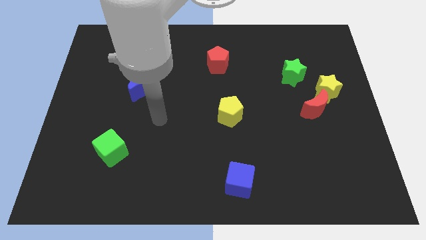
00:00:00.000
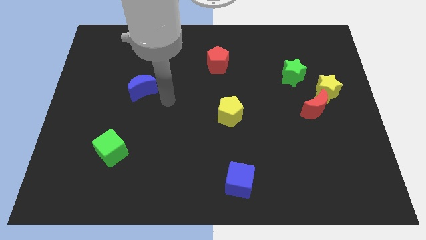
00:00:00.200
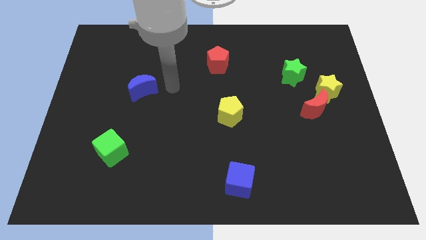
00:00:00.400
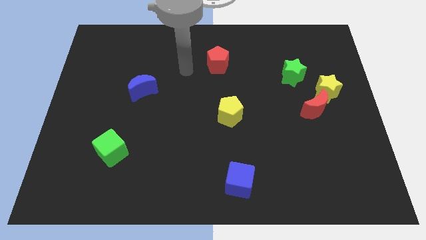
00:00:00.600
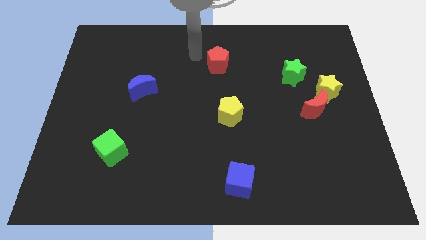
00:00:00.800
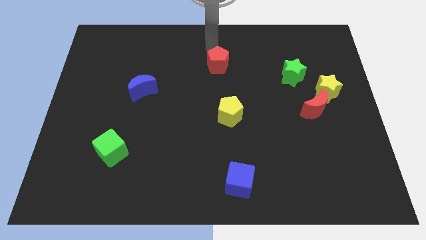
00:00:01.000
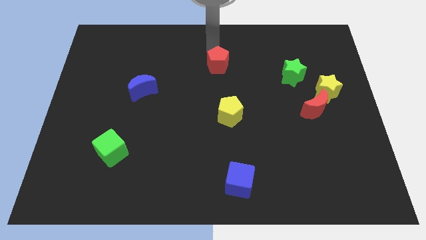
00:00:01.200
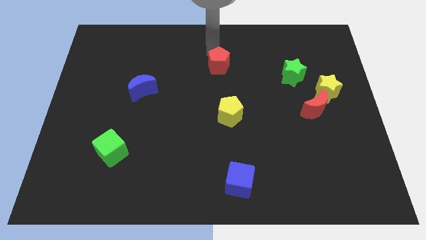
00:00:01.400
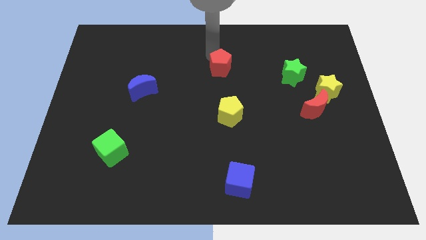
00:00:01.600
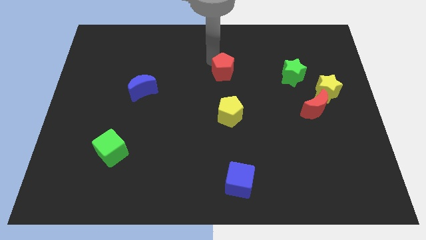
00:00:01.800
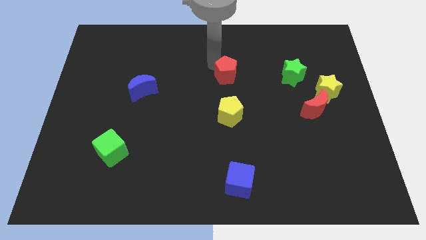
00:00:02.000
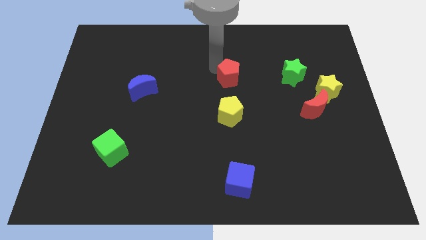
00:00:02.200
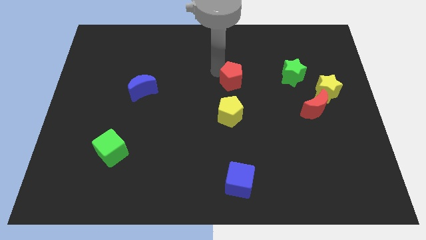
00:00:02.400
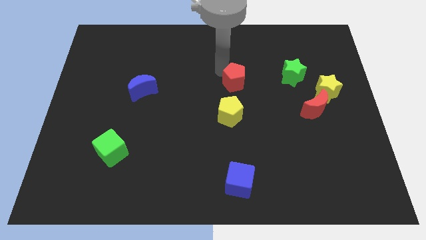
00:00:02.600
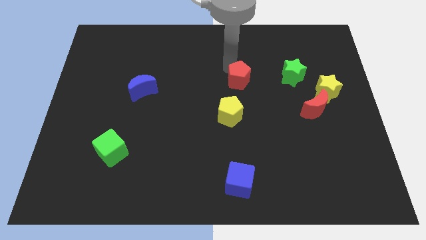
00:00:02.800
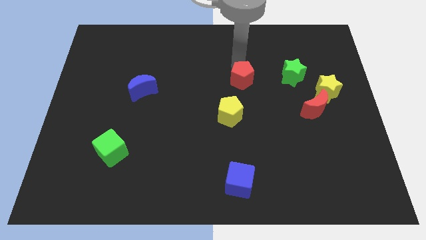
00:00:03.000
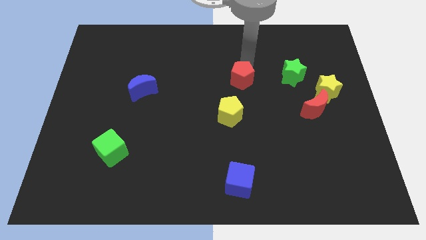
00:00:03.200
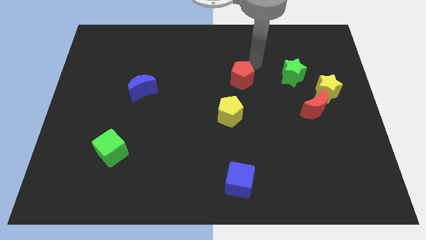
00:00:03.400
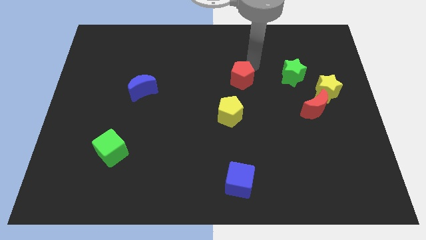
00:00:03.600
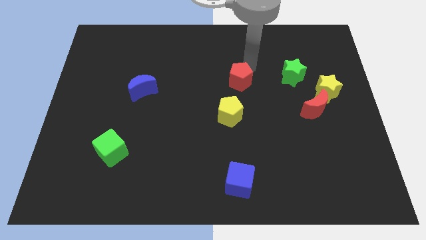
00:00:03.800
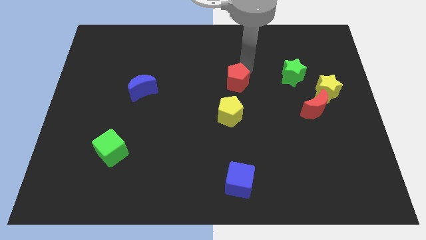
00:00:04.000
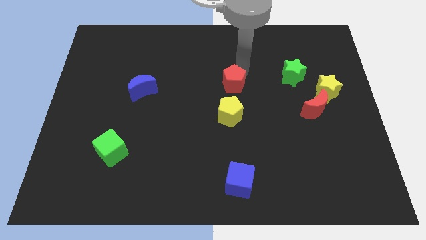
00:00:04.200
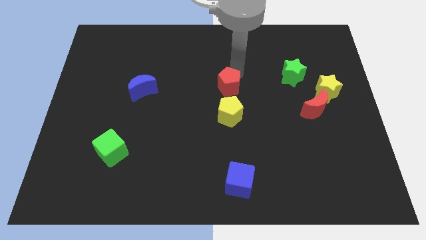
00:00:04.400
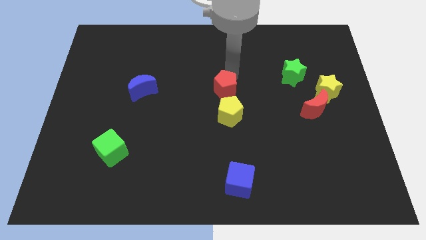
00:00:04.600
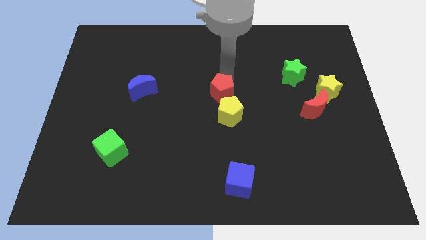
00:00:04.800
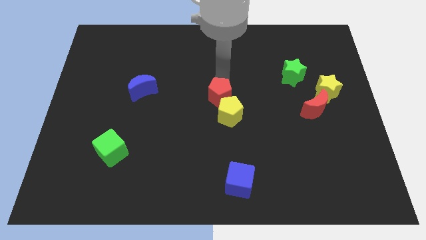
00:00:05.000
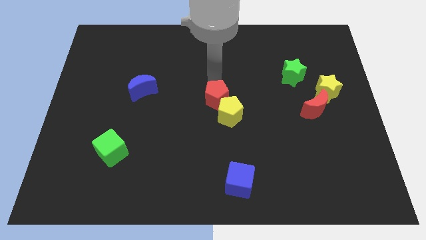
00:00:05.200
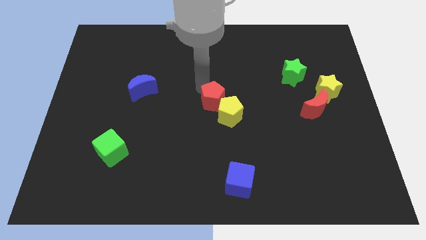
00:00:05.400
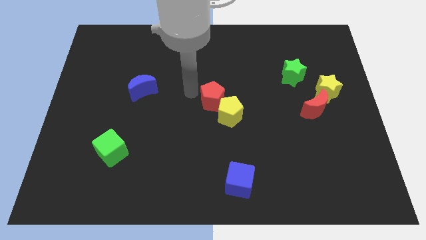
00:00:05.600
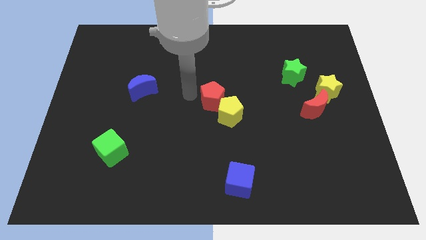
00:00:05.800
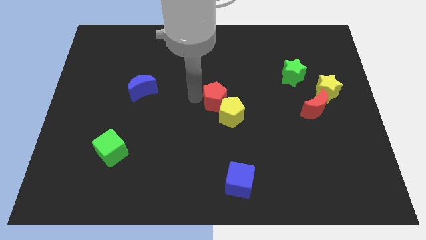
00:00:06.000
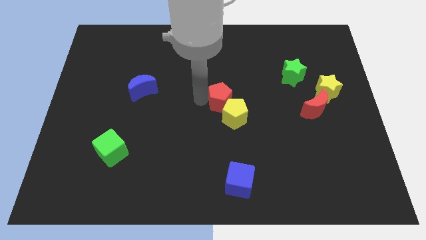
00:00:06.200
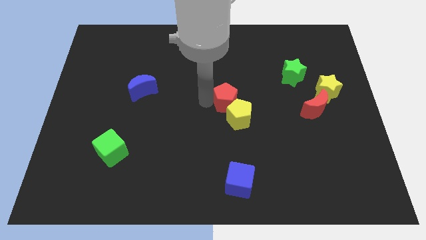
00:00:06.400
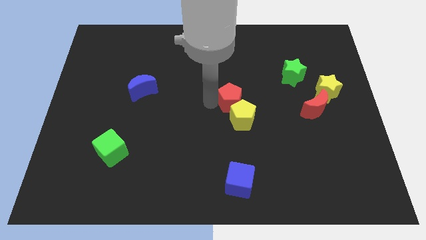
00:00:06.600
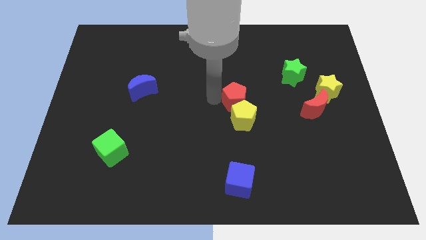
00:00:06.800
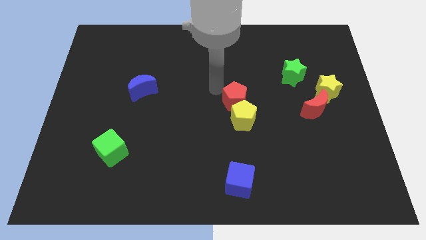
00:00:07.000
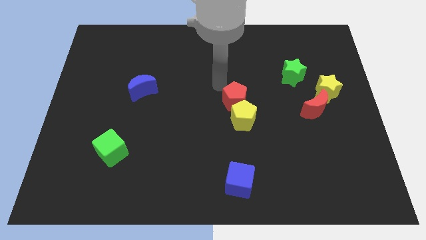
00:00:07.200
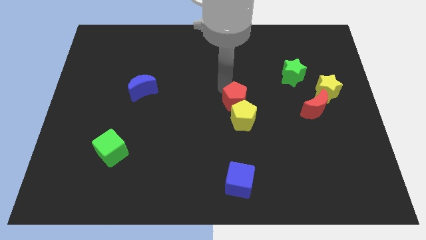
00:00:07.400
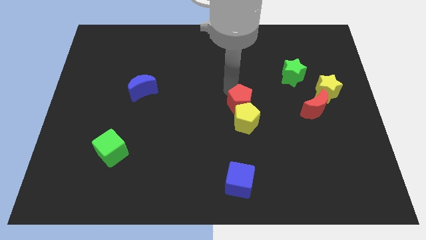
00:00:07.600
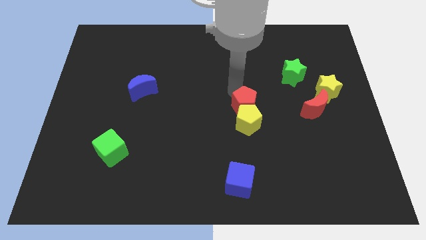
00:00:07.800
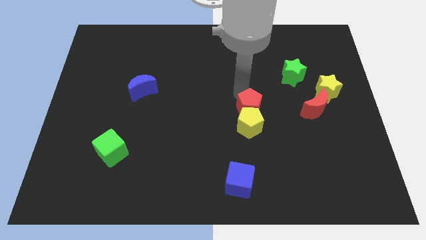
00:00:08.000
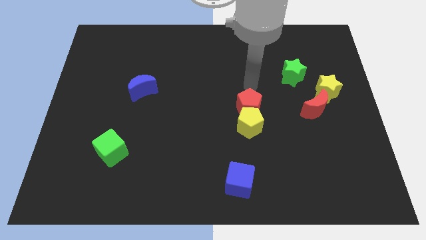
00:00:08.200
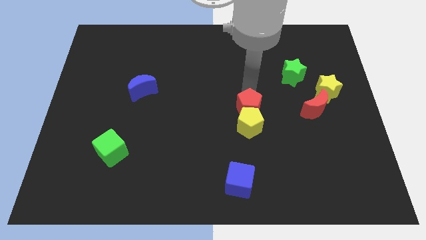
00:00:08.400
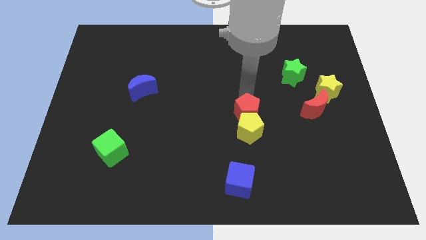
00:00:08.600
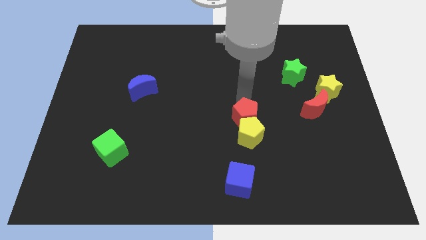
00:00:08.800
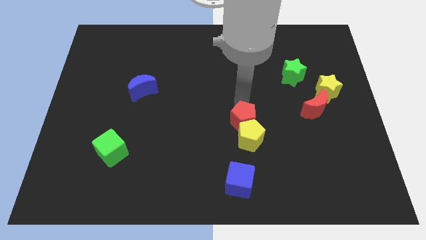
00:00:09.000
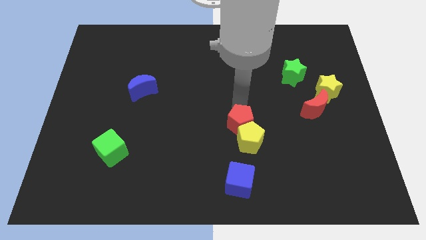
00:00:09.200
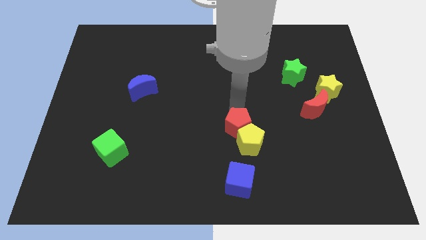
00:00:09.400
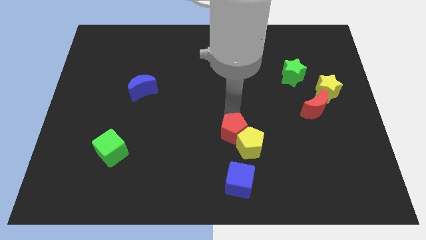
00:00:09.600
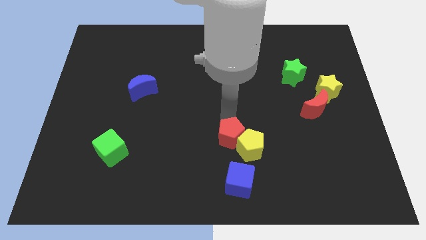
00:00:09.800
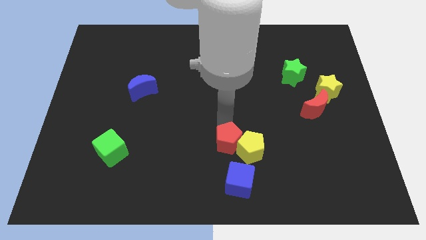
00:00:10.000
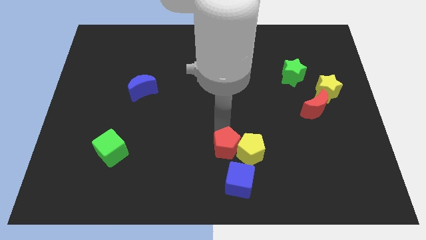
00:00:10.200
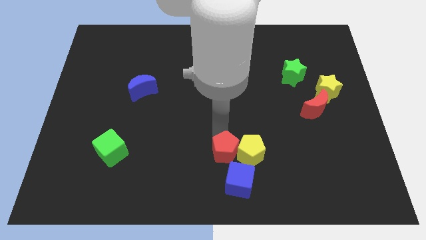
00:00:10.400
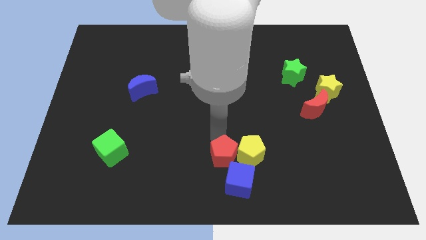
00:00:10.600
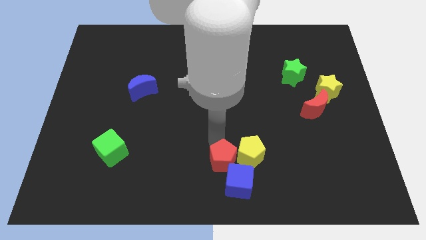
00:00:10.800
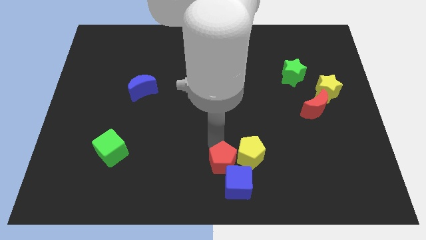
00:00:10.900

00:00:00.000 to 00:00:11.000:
put the red pentagon next to the blue cube

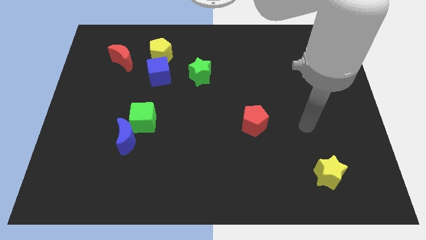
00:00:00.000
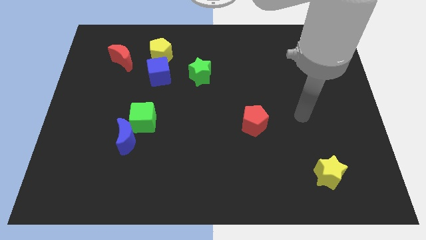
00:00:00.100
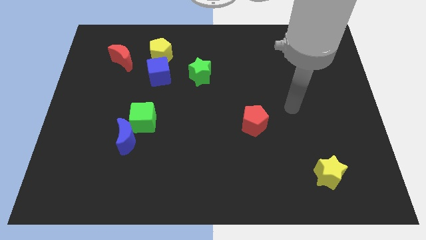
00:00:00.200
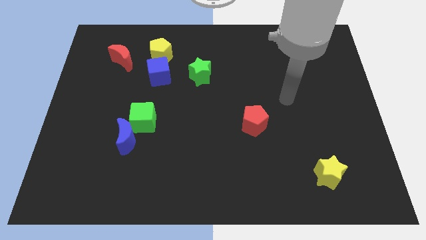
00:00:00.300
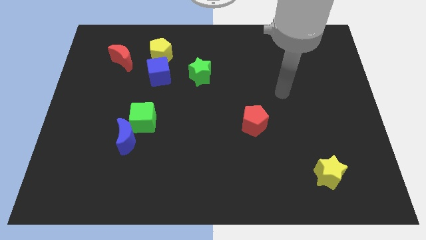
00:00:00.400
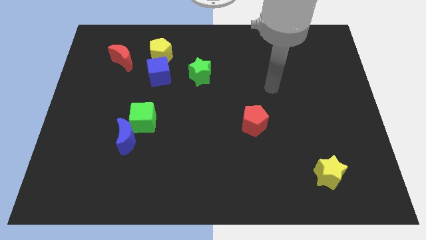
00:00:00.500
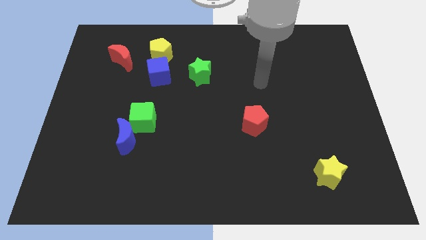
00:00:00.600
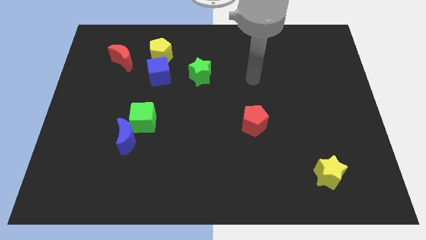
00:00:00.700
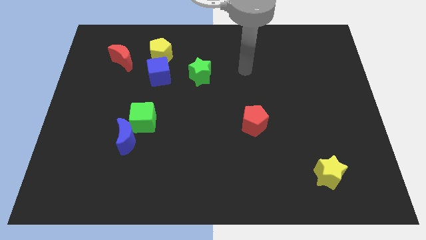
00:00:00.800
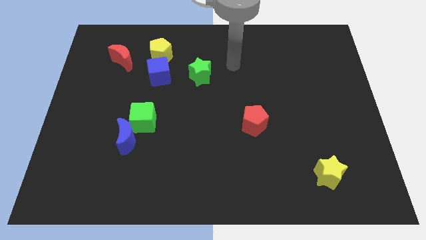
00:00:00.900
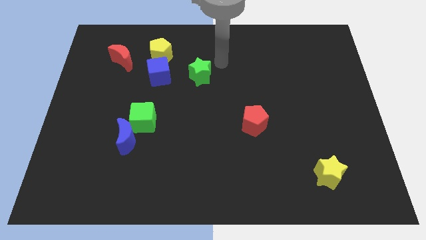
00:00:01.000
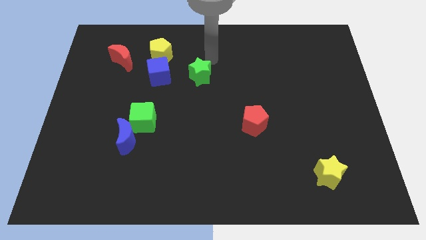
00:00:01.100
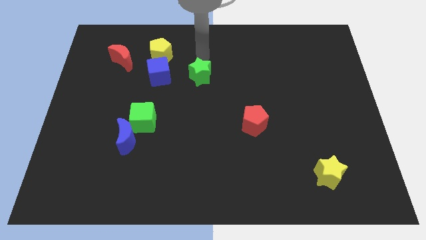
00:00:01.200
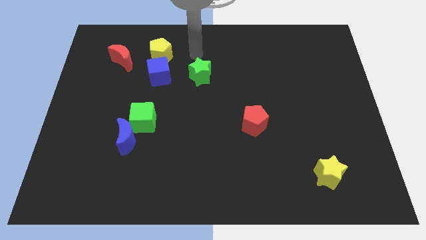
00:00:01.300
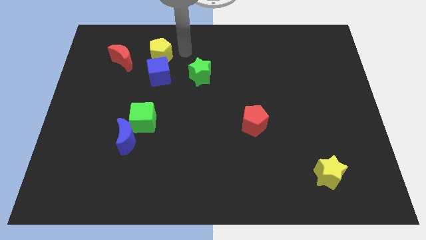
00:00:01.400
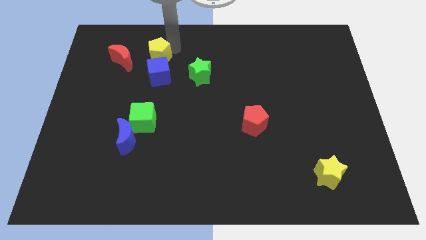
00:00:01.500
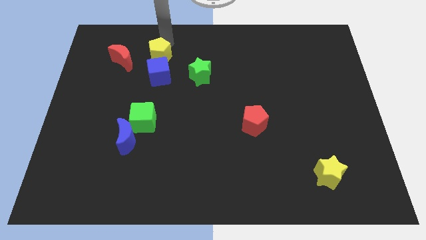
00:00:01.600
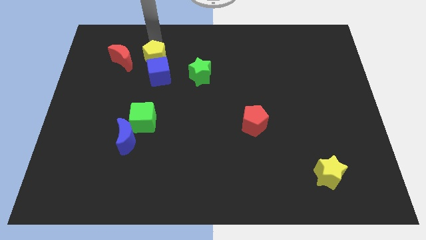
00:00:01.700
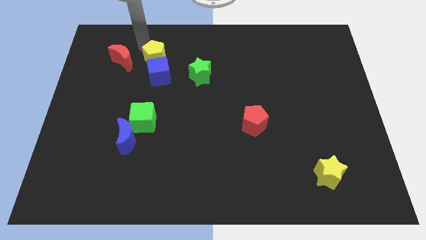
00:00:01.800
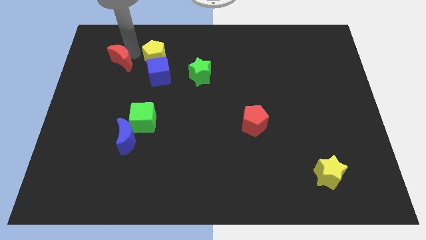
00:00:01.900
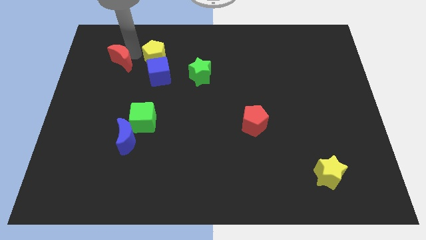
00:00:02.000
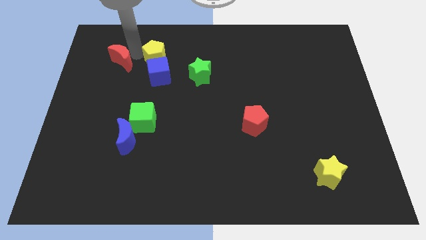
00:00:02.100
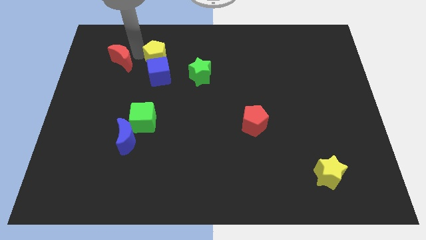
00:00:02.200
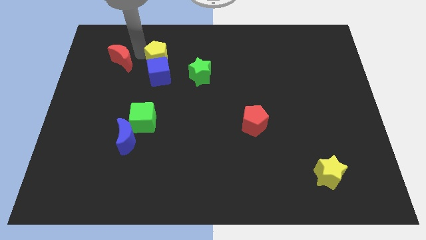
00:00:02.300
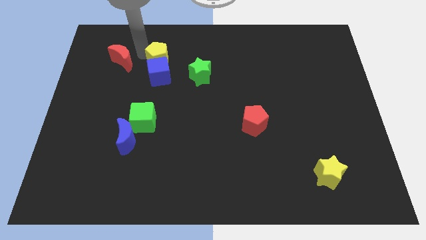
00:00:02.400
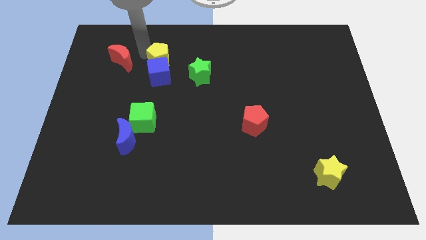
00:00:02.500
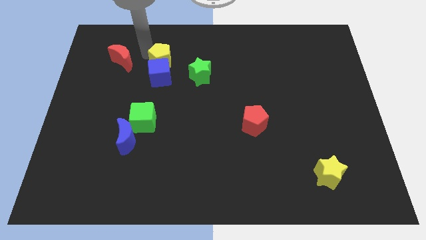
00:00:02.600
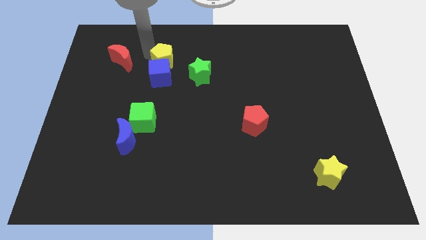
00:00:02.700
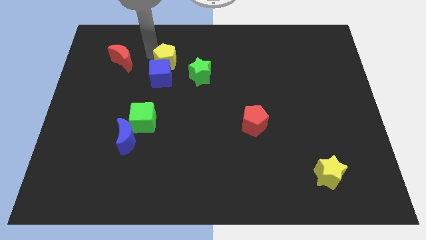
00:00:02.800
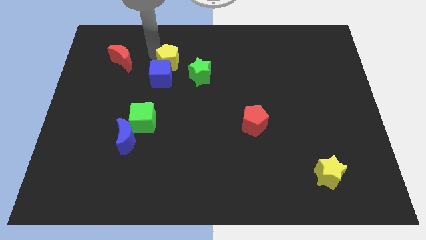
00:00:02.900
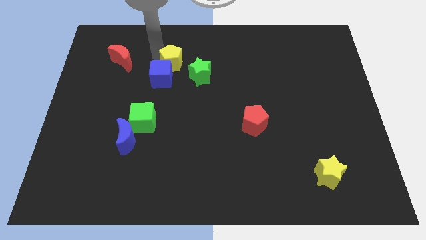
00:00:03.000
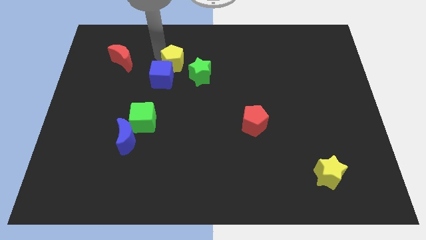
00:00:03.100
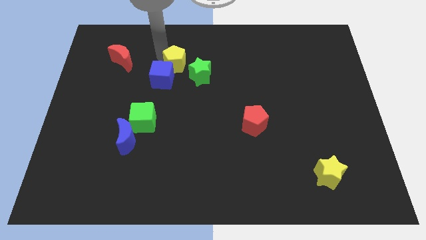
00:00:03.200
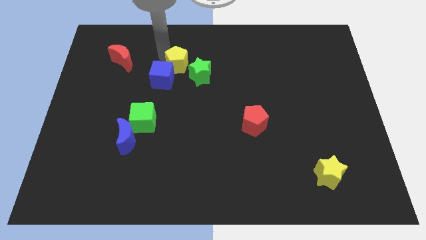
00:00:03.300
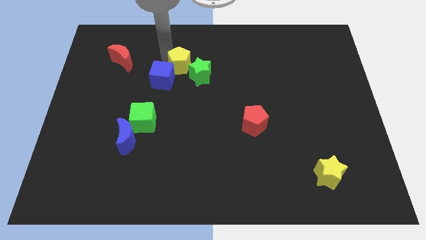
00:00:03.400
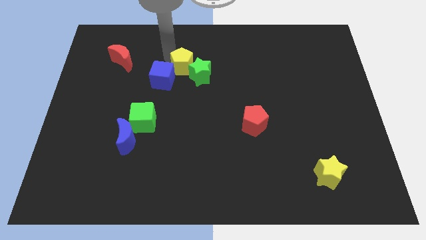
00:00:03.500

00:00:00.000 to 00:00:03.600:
put the yellow pentagon next to the green star
